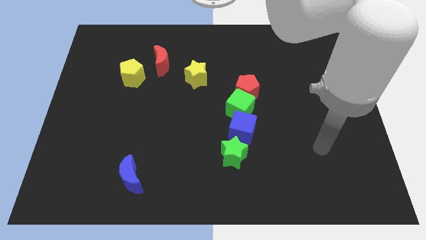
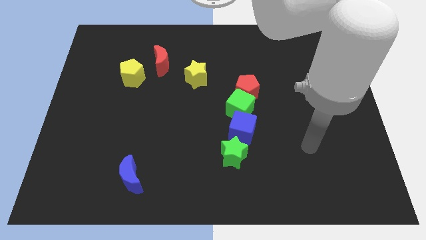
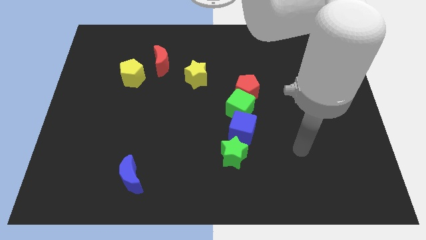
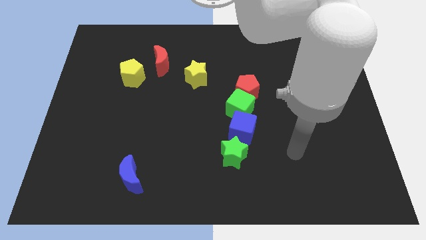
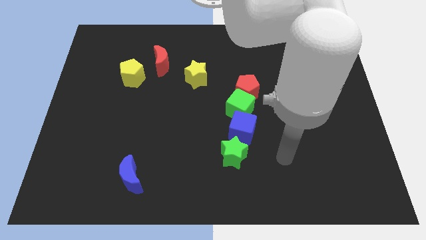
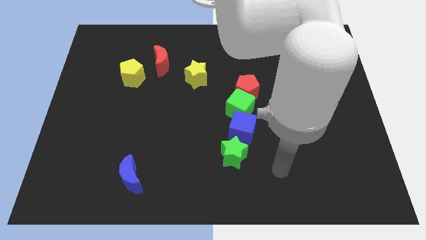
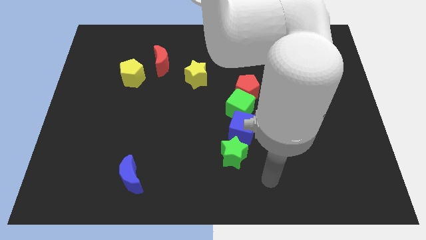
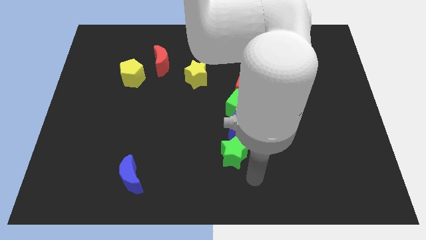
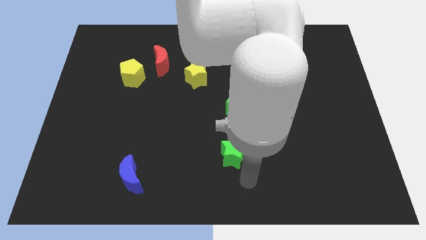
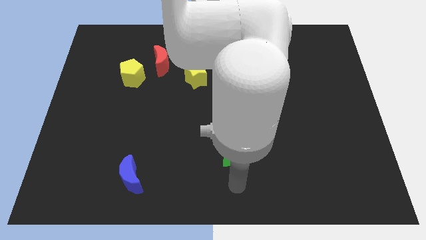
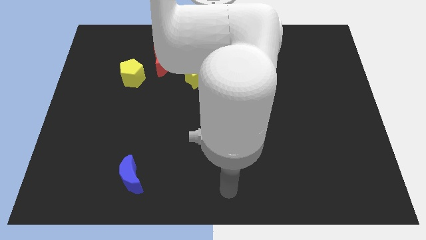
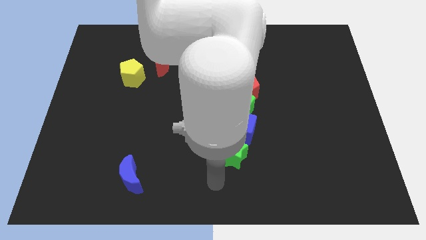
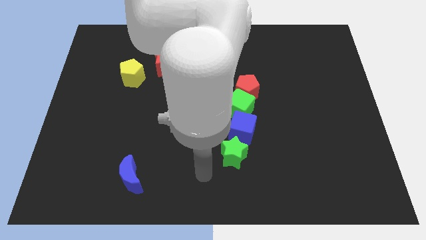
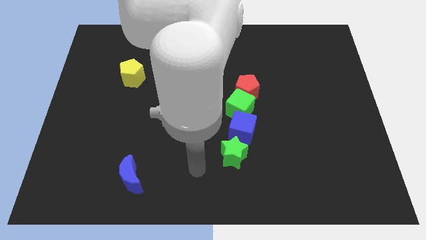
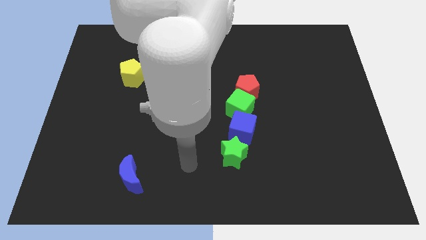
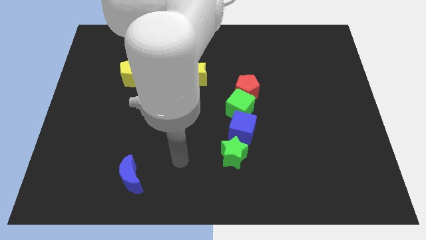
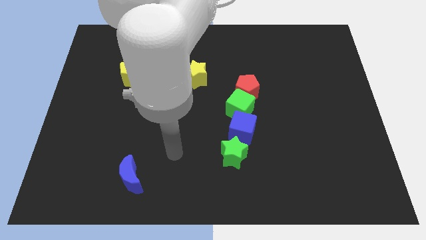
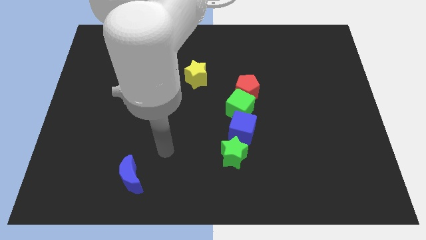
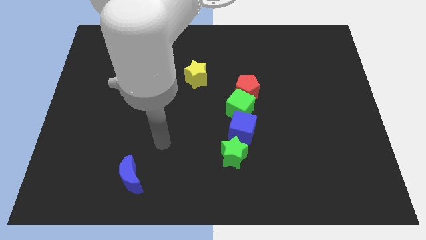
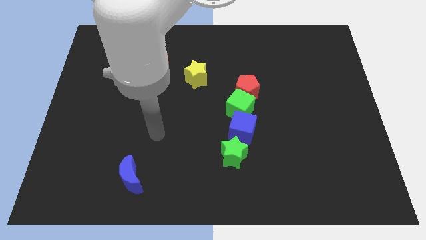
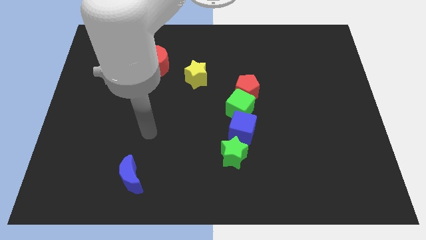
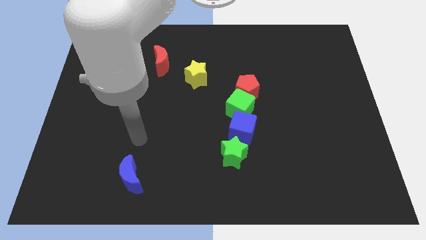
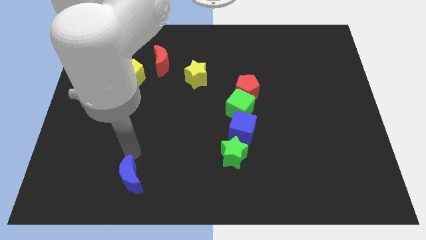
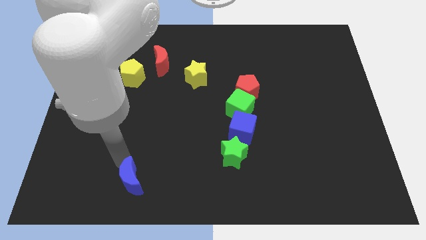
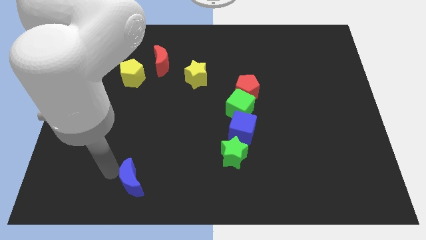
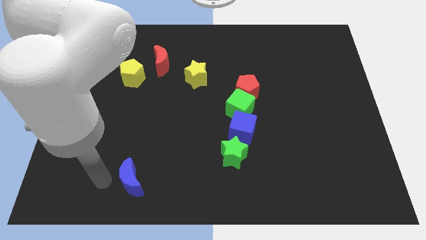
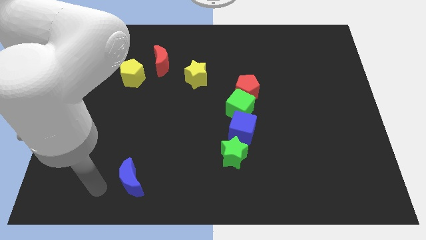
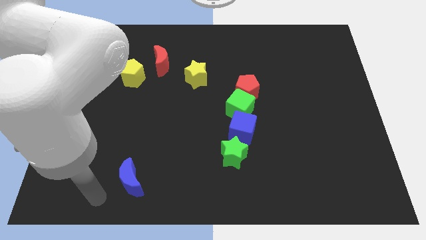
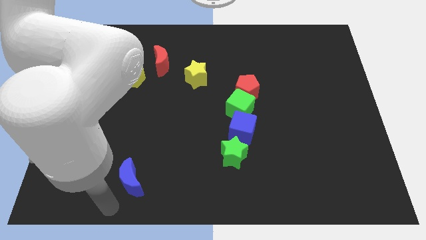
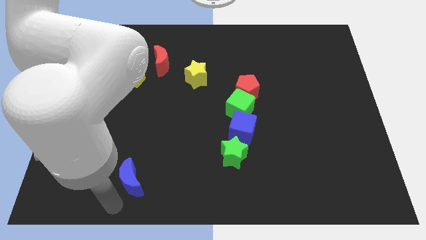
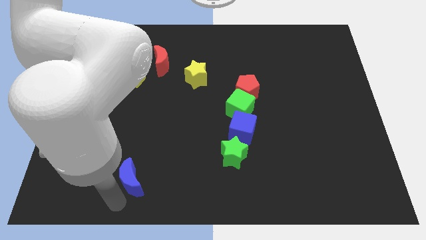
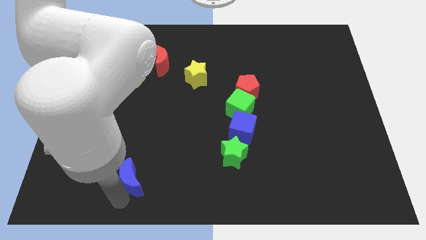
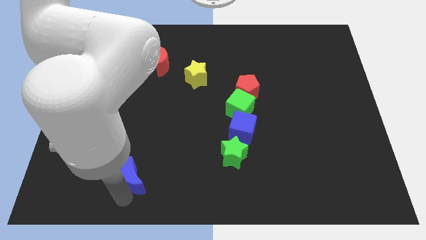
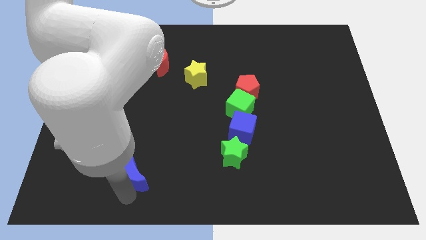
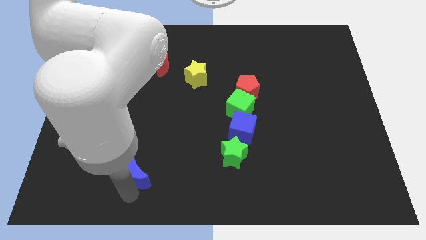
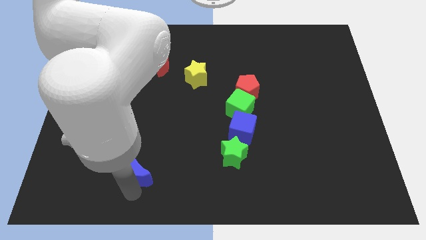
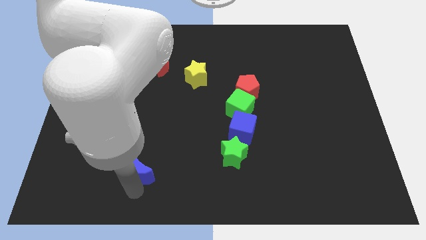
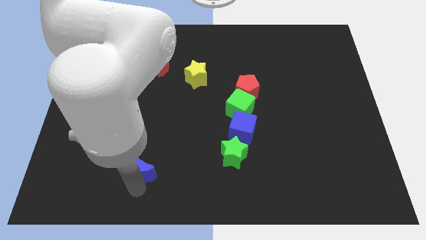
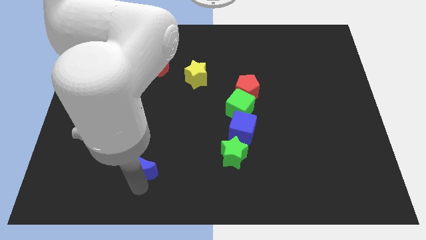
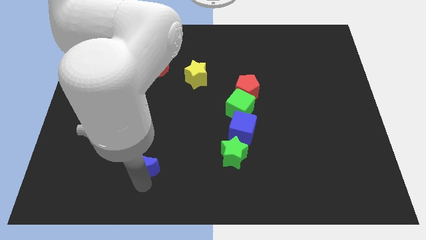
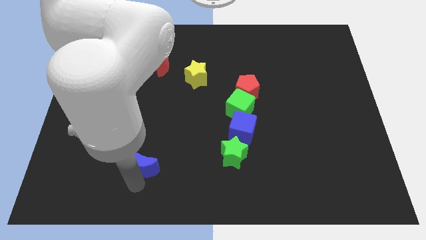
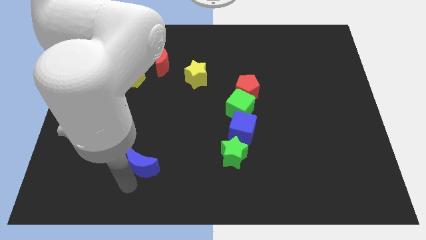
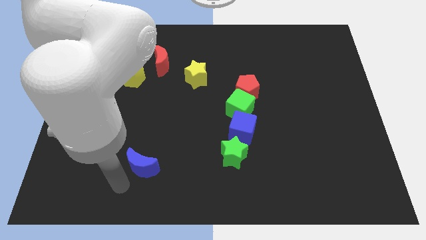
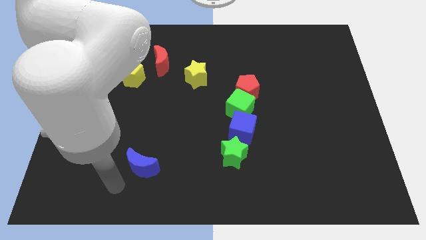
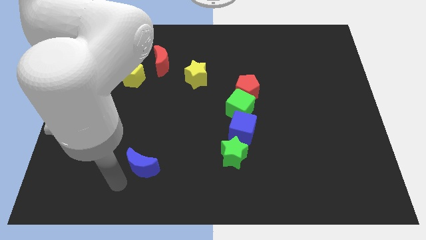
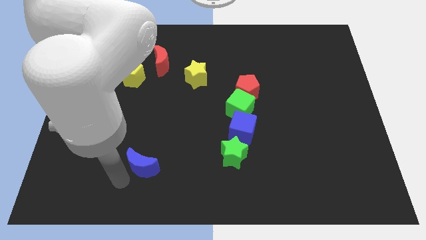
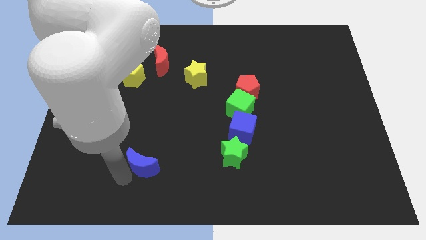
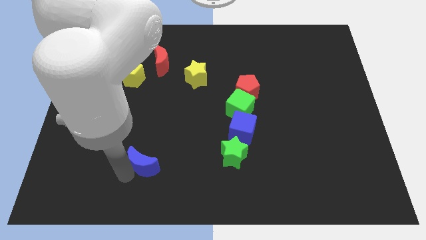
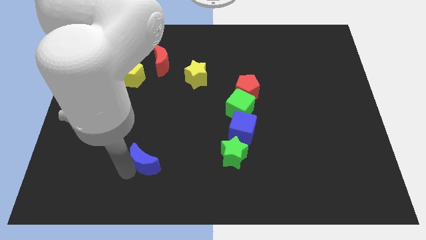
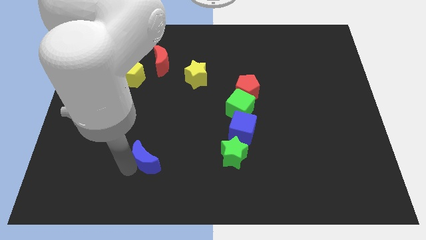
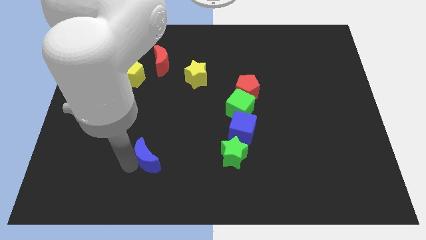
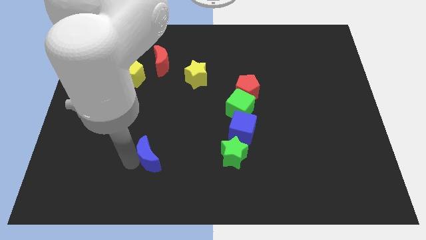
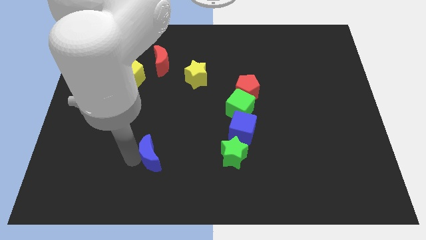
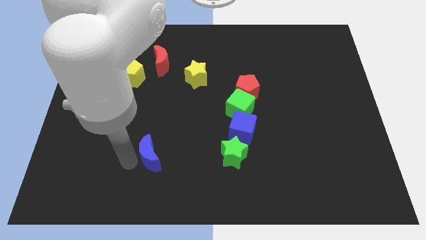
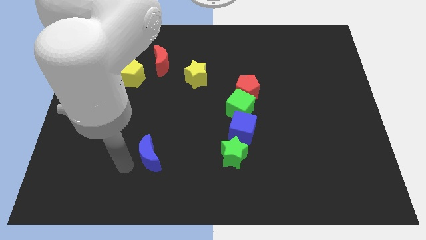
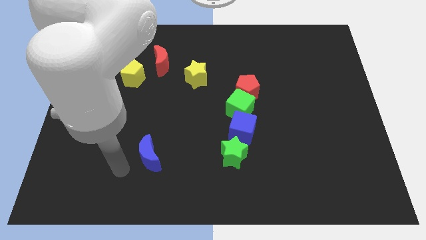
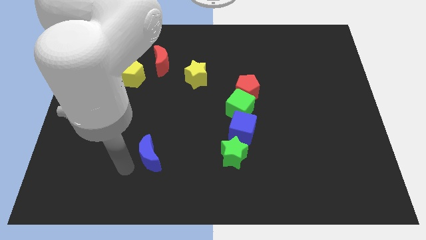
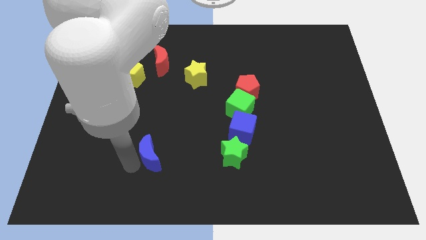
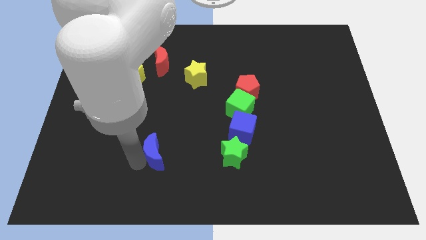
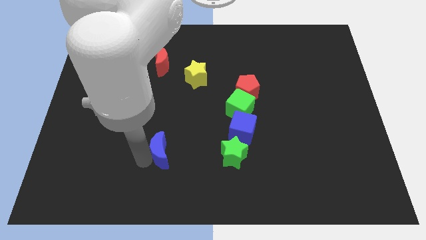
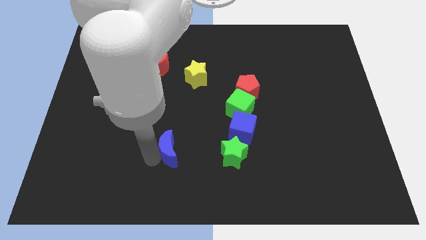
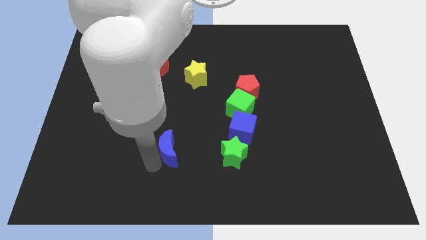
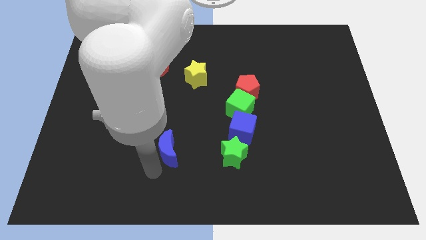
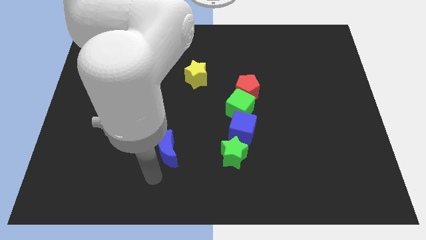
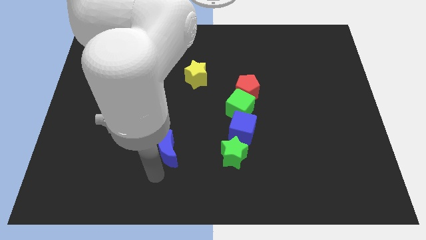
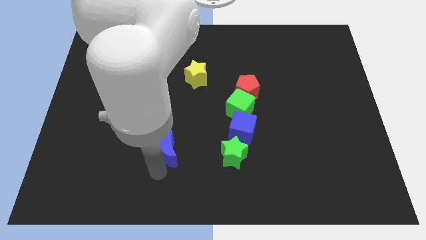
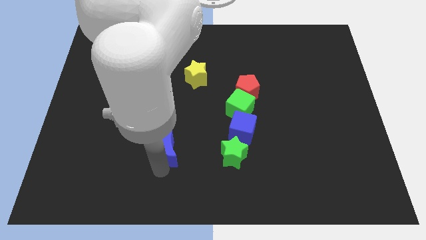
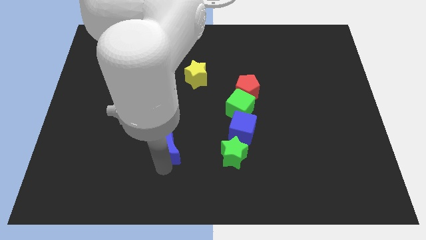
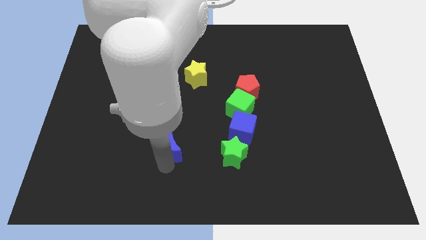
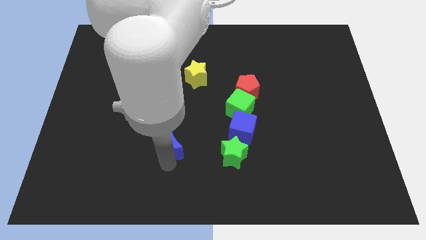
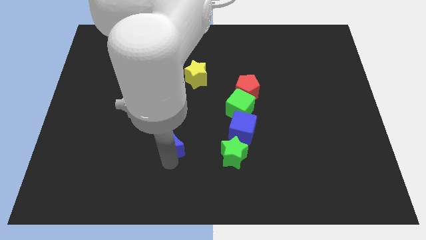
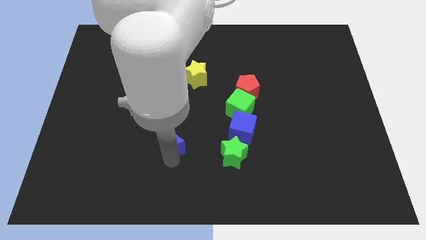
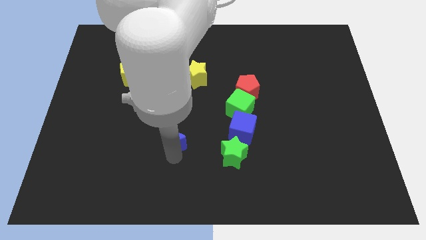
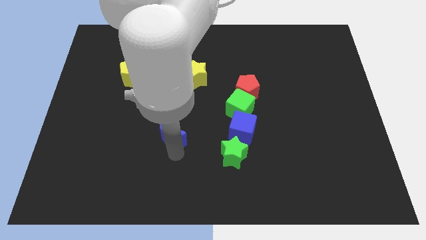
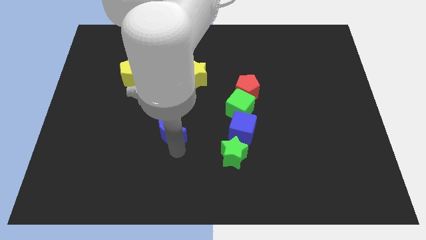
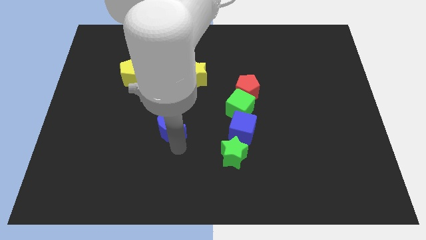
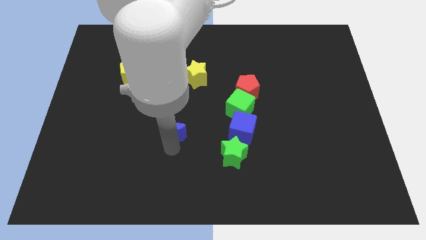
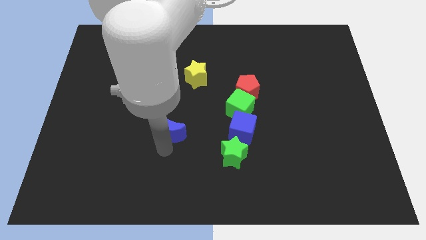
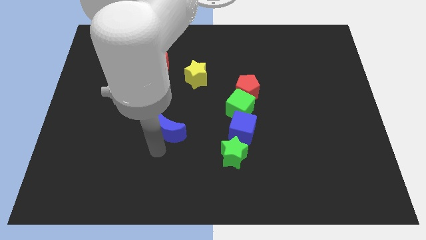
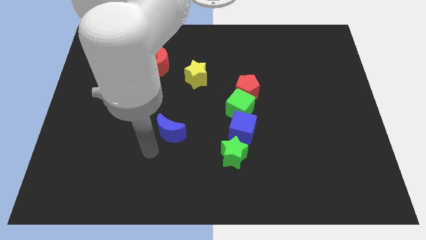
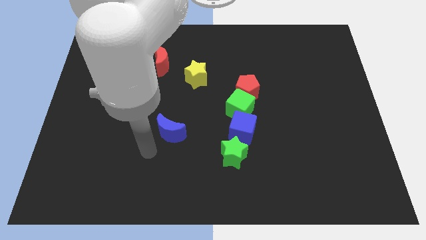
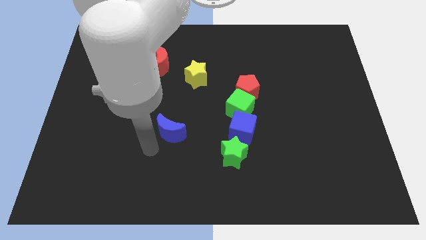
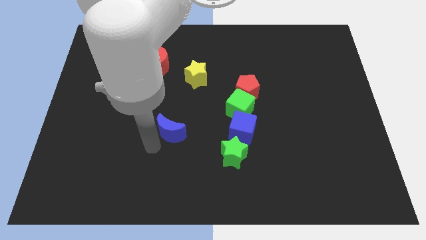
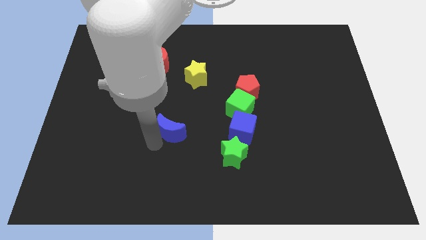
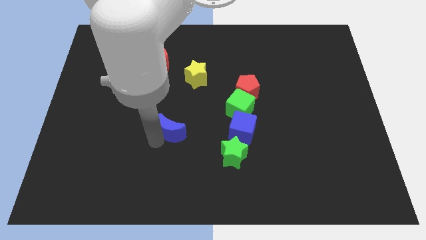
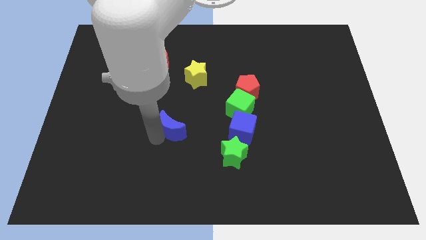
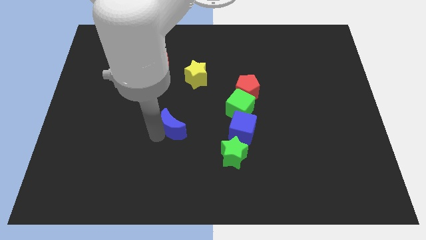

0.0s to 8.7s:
slide the blue moon to the middle
